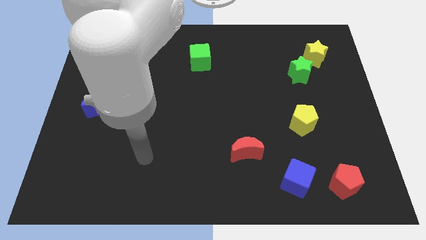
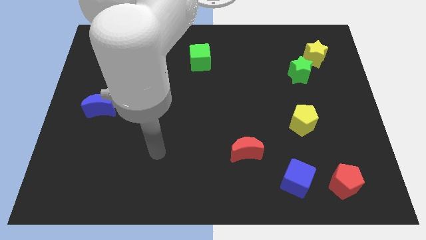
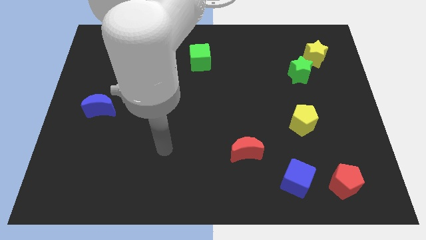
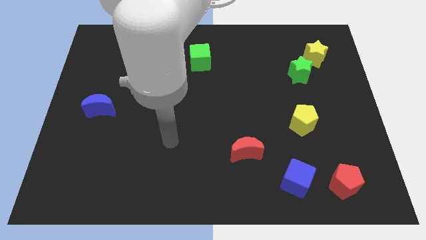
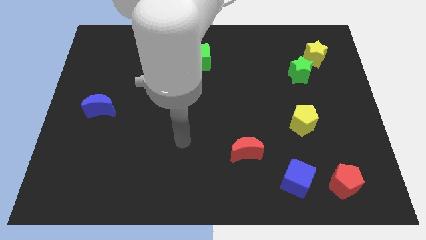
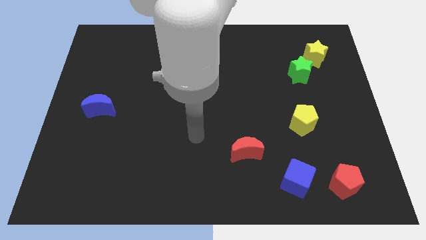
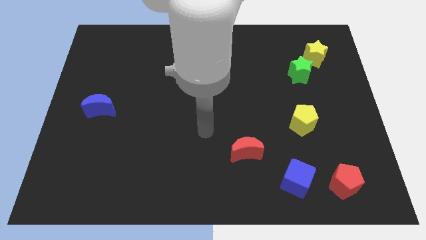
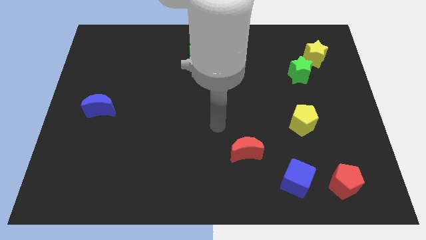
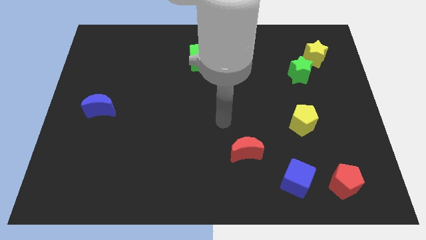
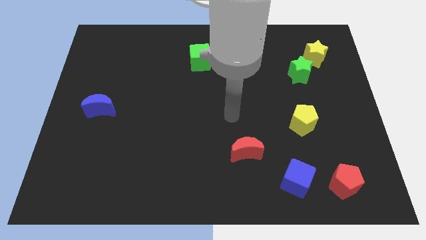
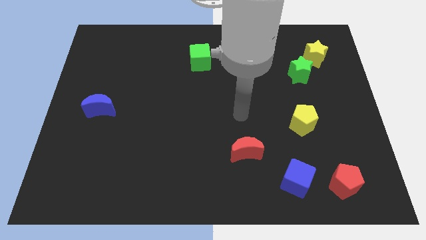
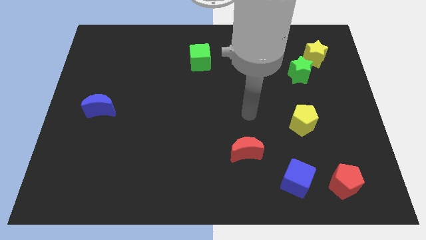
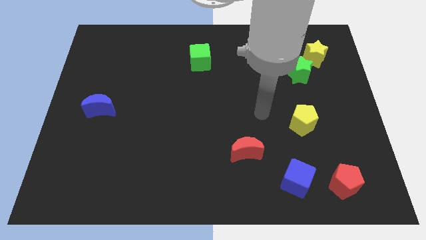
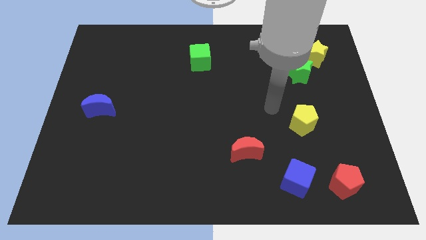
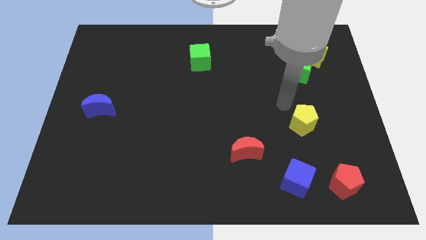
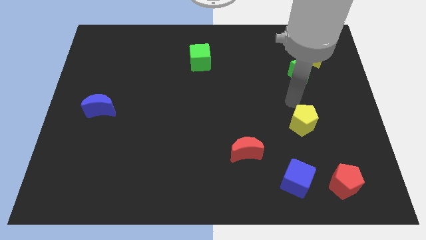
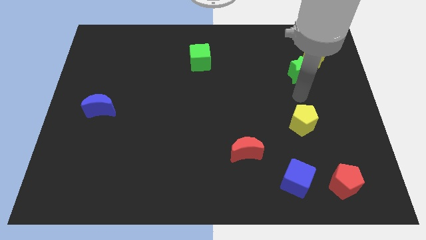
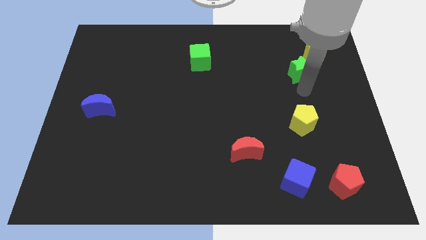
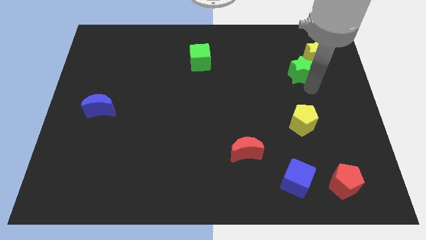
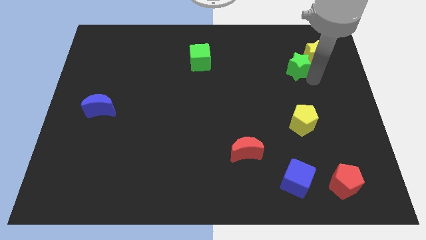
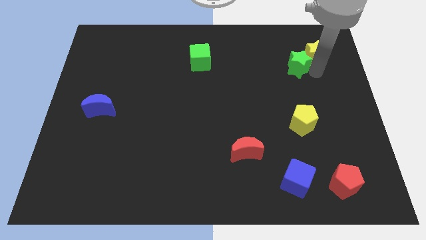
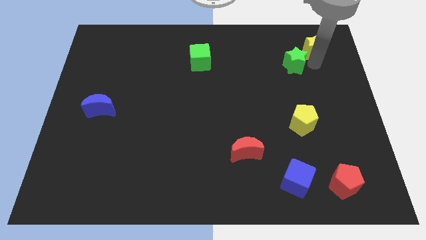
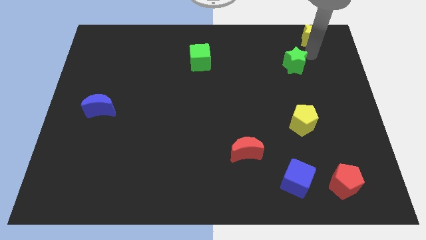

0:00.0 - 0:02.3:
separate the green star from the yellow star

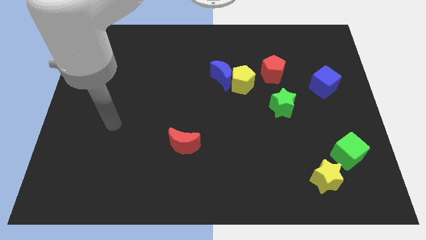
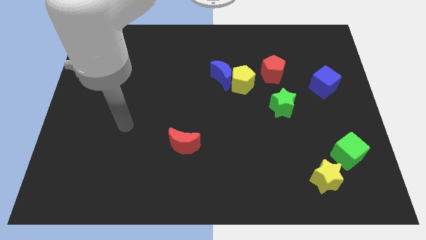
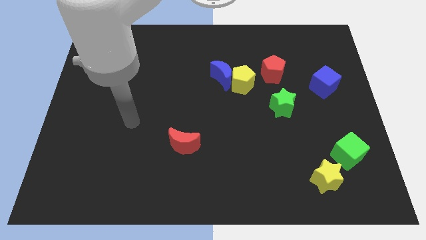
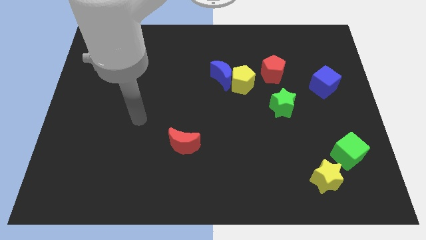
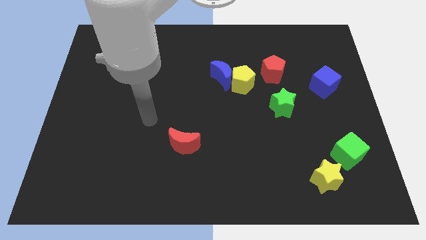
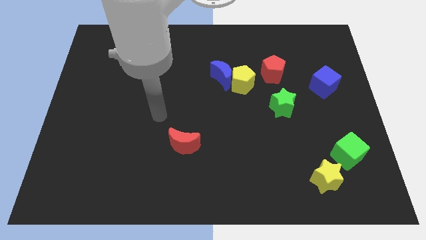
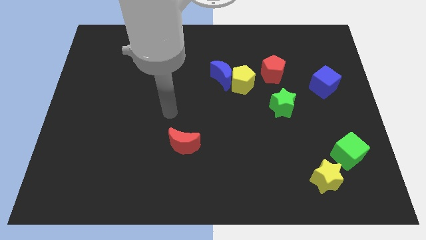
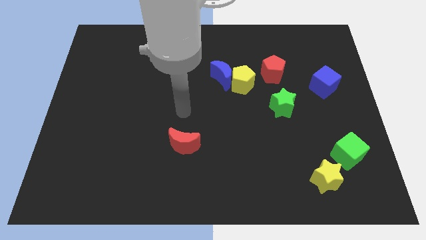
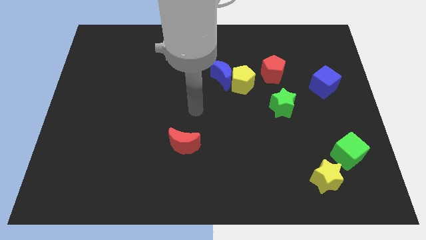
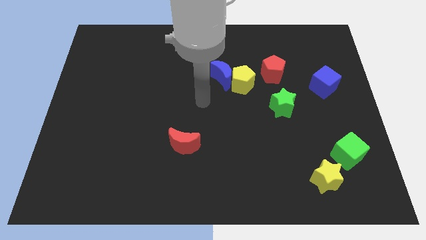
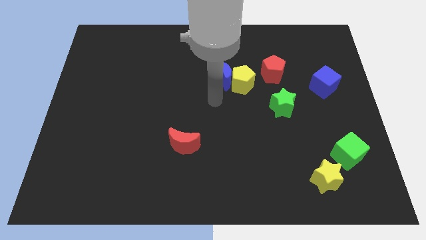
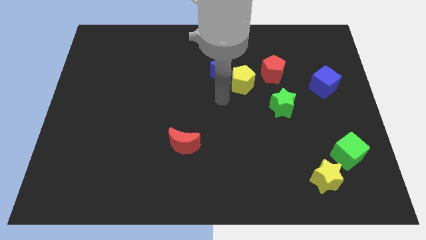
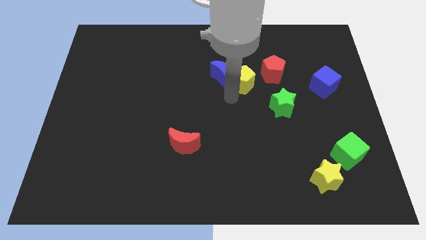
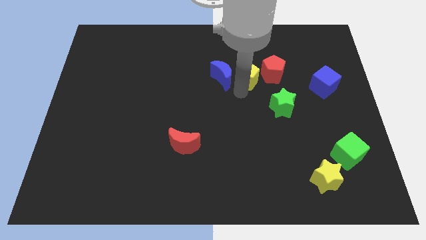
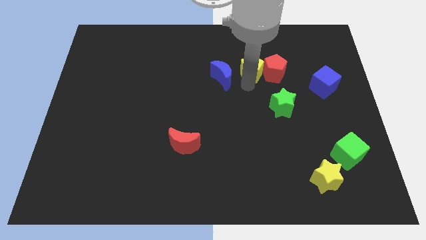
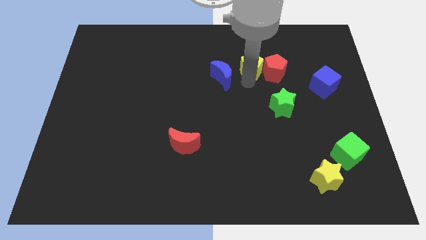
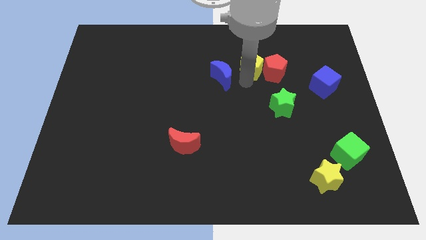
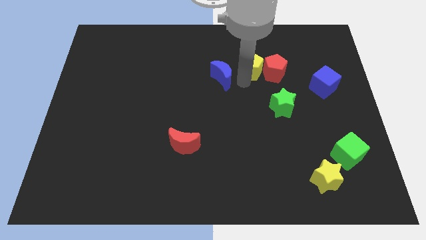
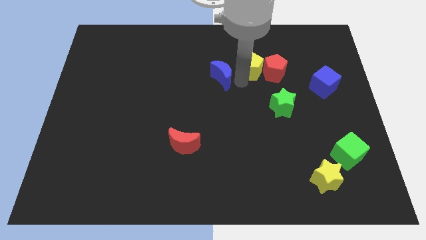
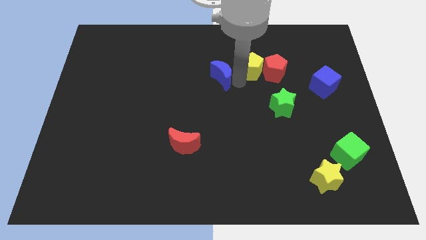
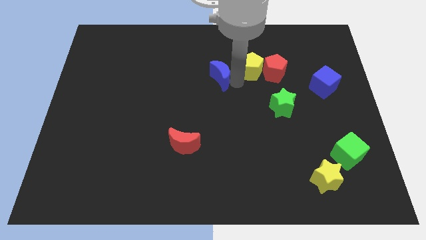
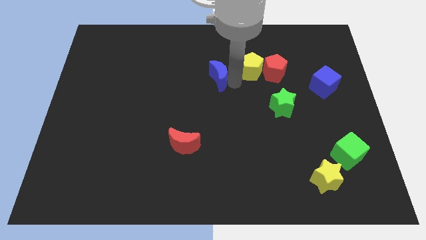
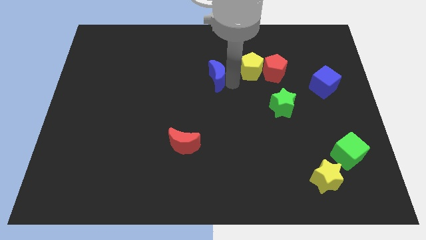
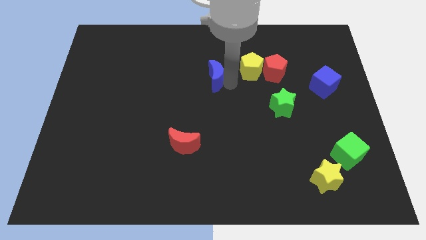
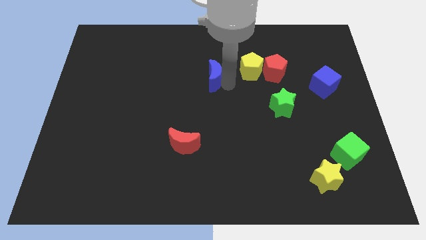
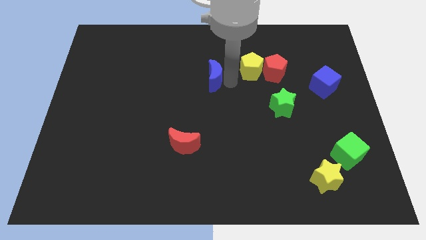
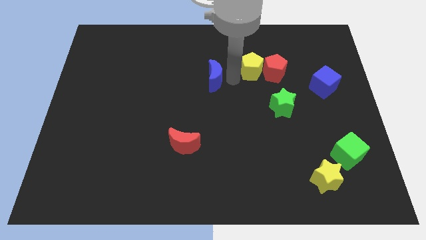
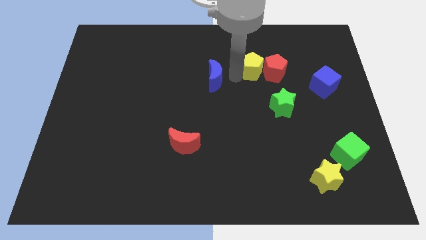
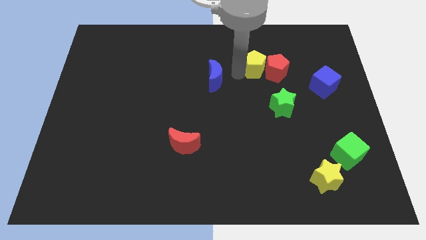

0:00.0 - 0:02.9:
pull the blue moon apart from the yellow pentagon

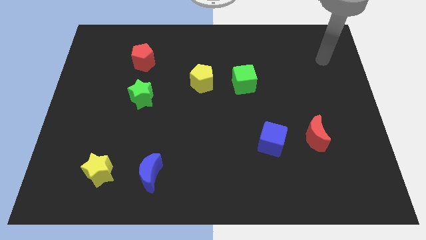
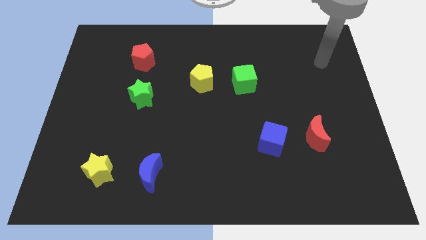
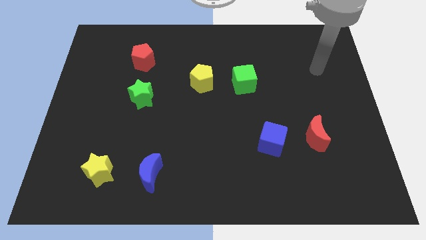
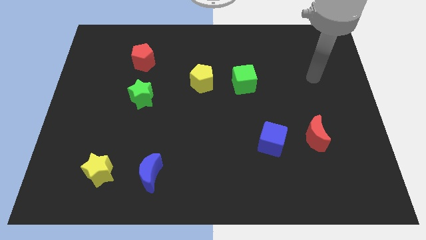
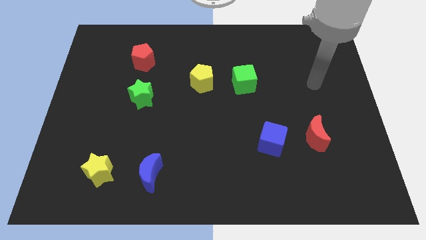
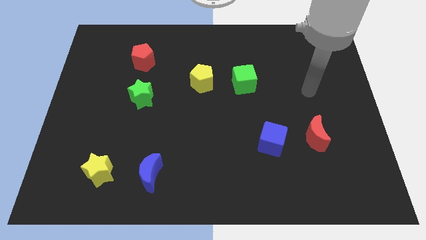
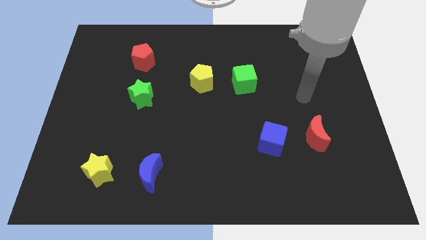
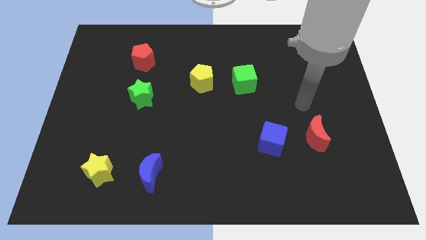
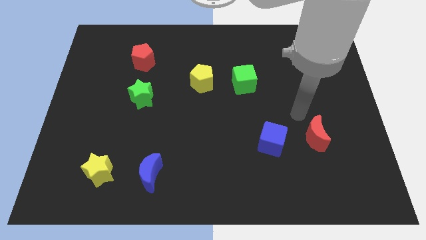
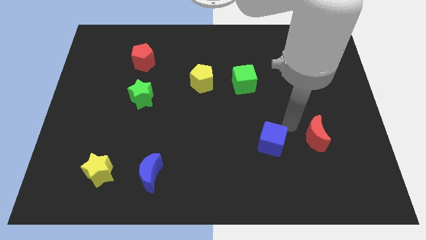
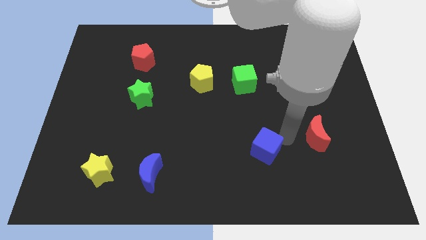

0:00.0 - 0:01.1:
separate the red moon from the blue cube

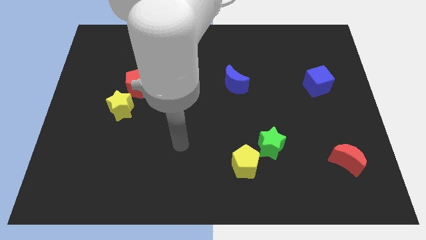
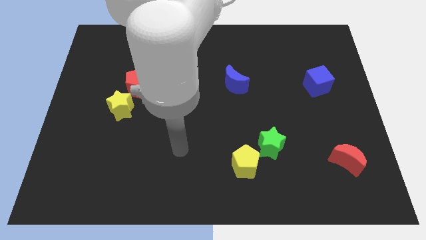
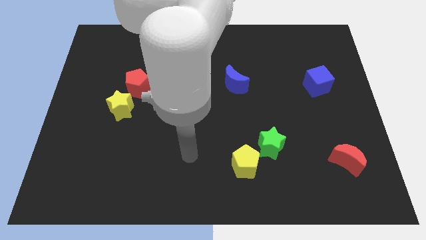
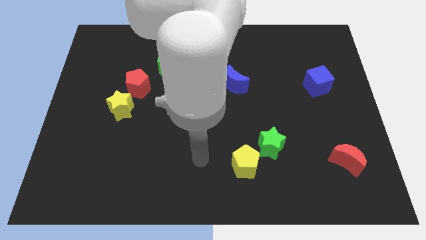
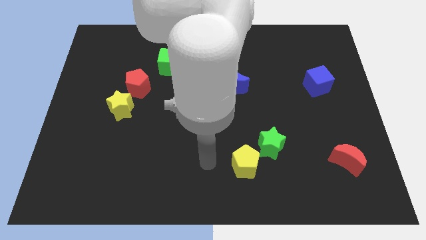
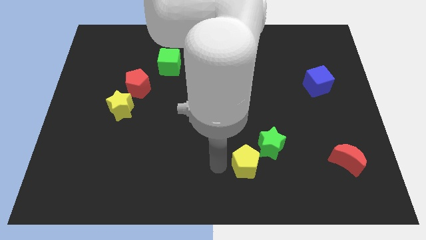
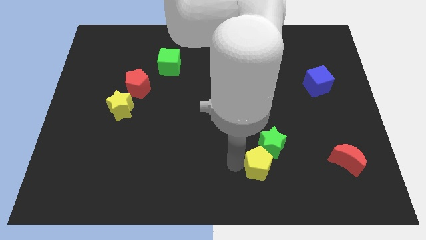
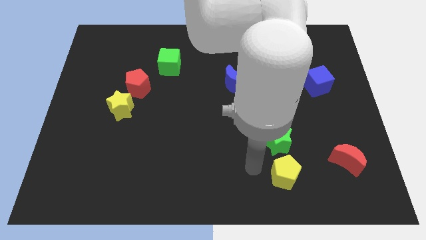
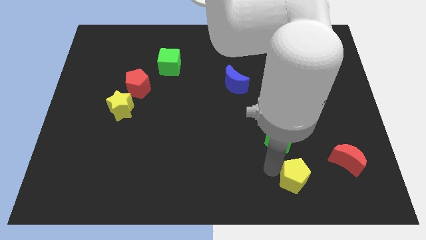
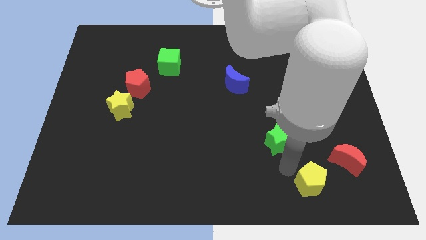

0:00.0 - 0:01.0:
pull the green star apart from the yellow pentagon

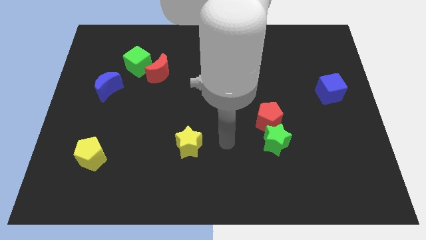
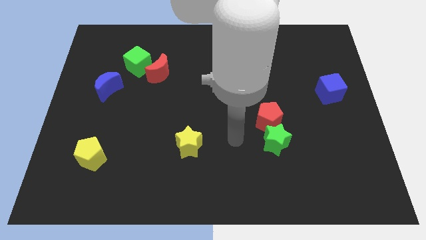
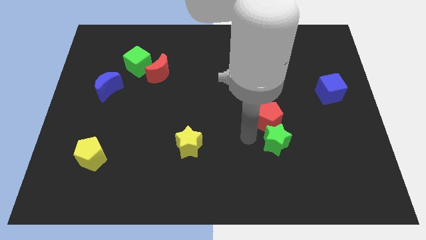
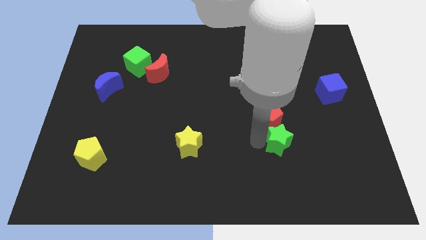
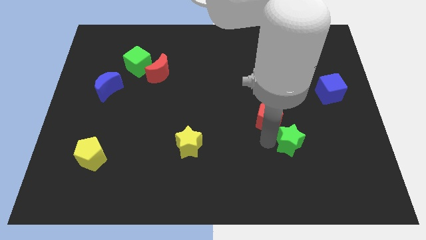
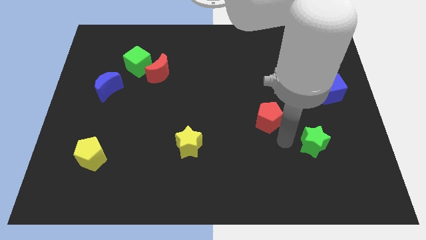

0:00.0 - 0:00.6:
separate the red pentagon from the green star

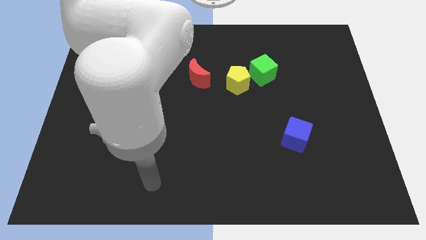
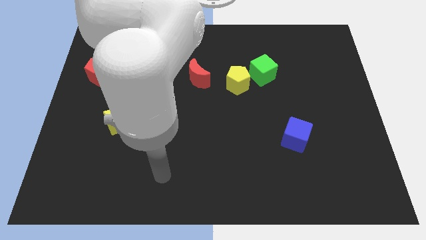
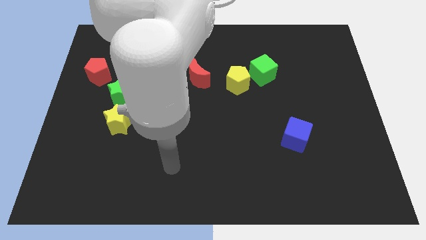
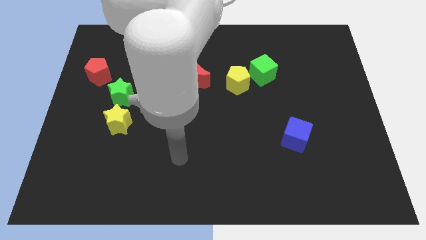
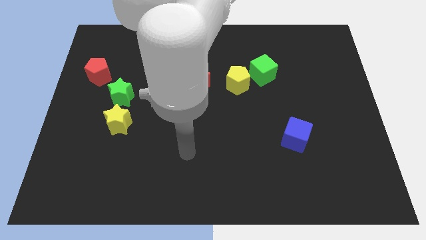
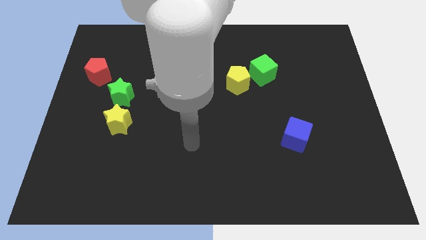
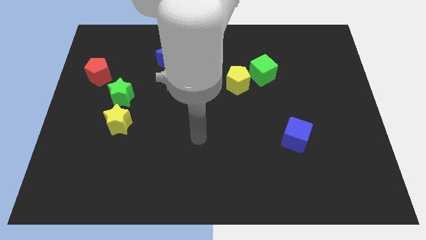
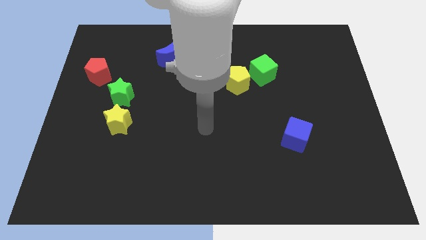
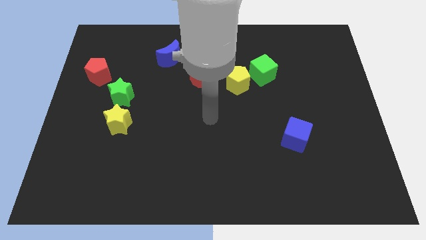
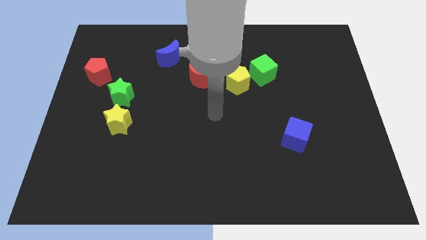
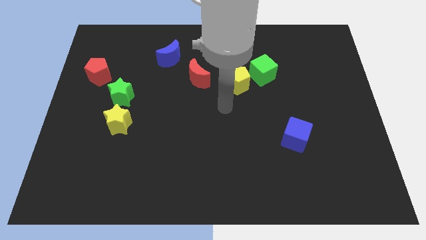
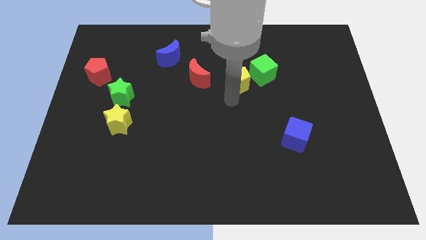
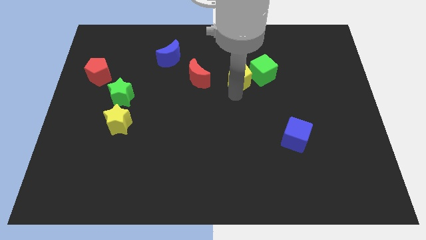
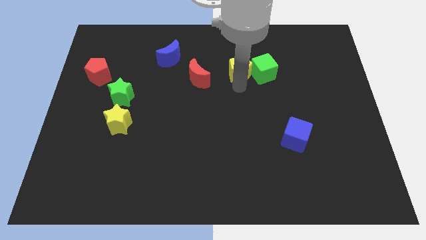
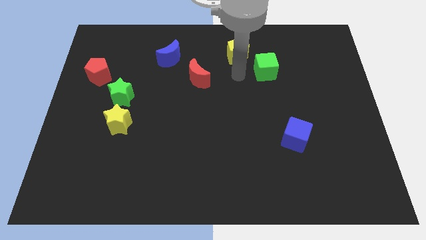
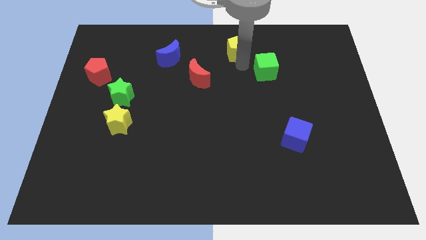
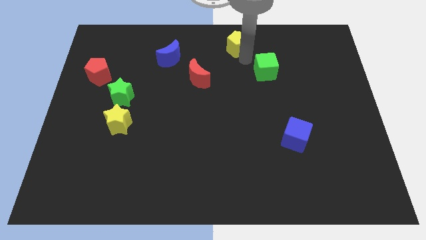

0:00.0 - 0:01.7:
pull the green cube apart from the yellow pentagon
